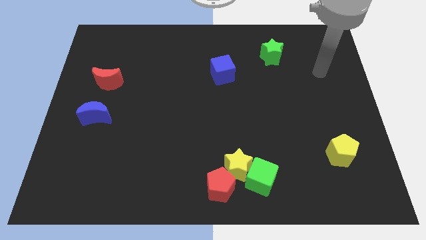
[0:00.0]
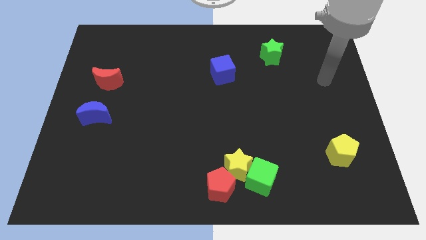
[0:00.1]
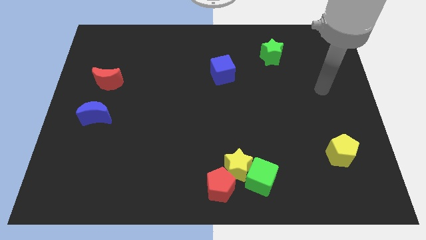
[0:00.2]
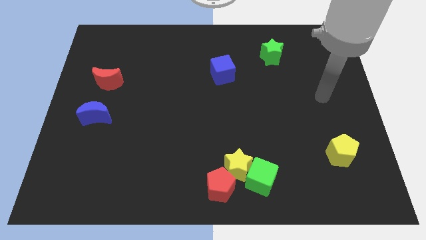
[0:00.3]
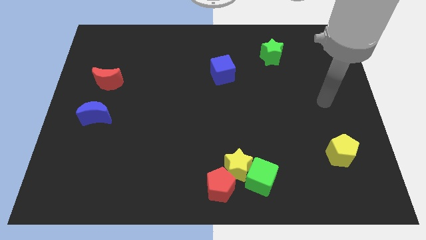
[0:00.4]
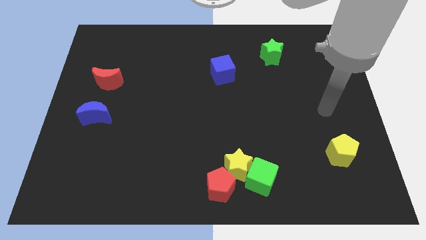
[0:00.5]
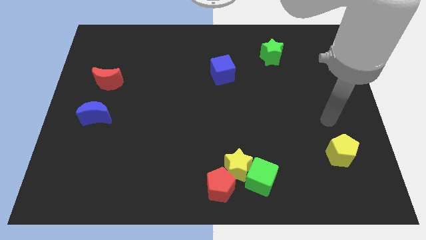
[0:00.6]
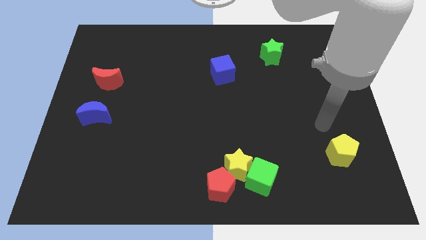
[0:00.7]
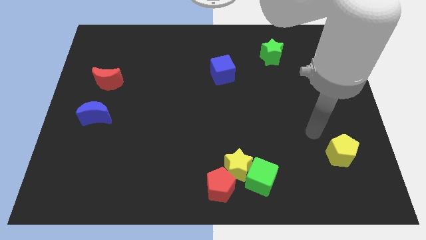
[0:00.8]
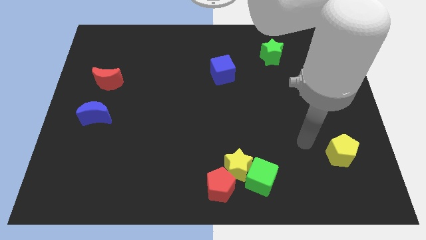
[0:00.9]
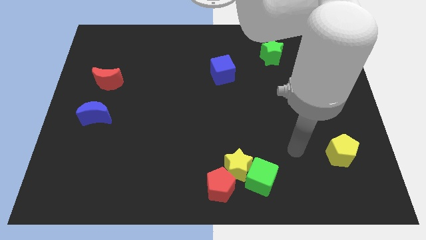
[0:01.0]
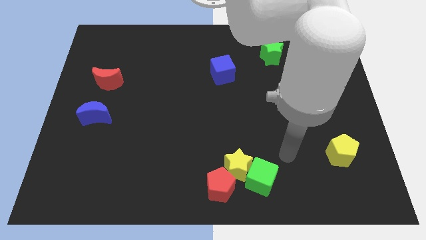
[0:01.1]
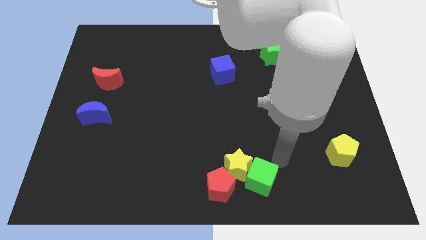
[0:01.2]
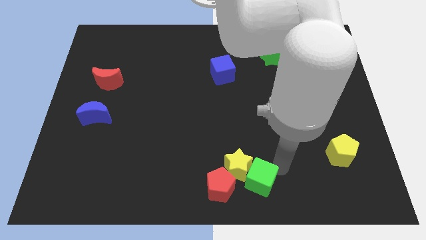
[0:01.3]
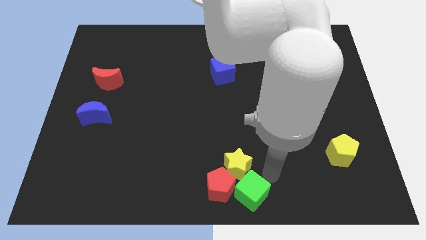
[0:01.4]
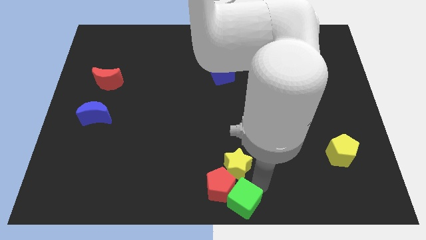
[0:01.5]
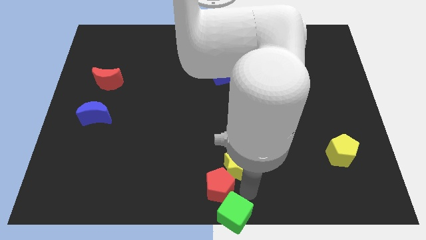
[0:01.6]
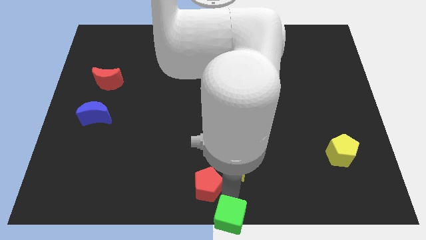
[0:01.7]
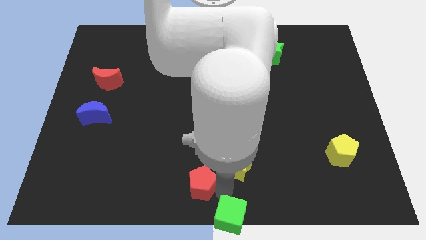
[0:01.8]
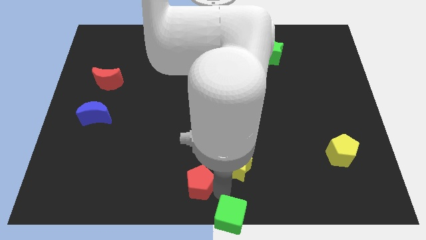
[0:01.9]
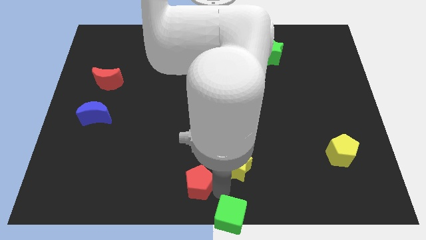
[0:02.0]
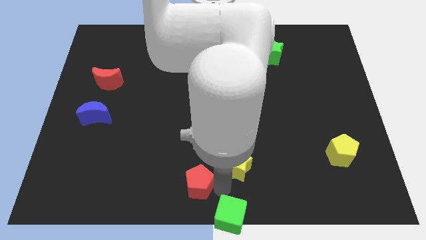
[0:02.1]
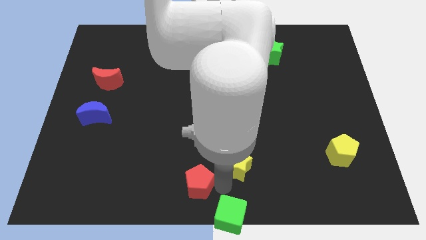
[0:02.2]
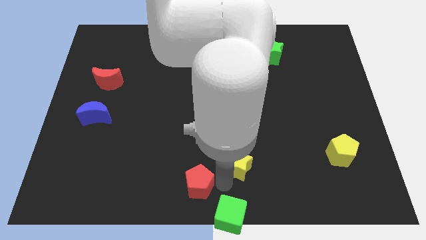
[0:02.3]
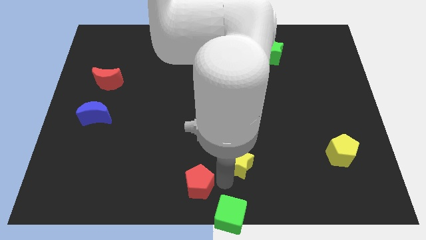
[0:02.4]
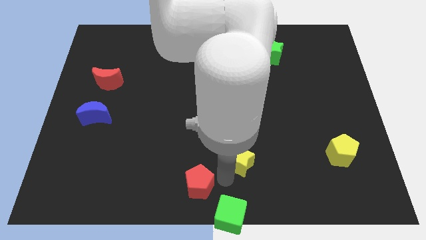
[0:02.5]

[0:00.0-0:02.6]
move the yellow star away from the green cube and red pentagon

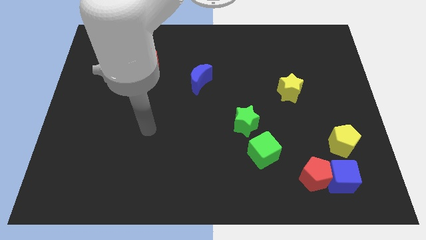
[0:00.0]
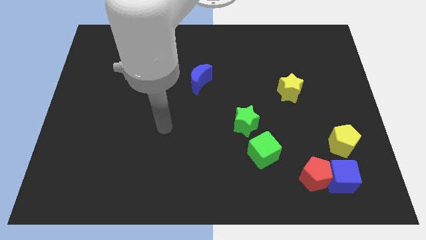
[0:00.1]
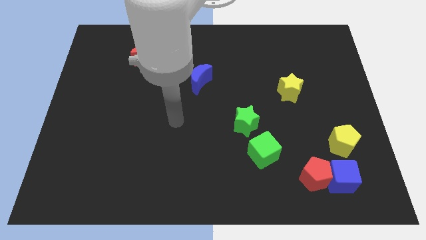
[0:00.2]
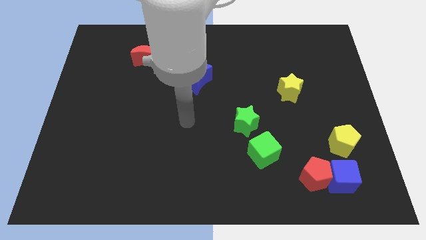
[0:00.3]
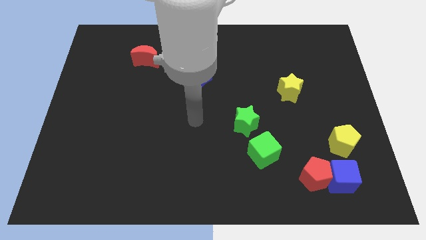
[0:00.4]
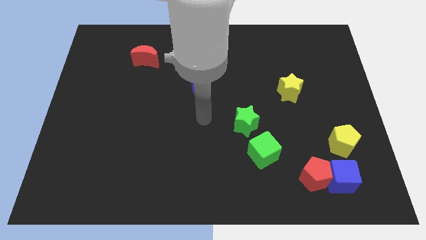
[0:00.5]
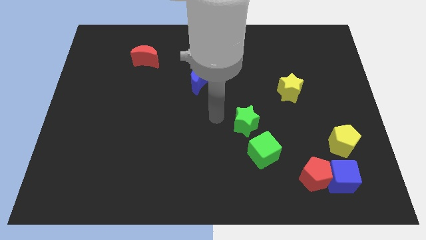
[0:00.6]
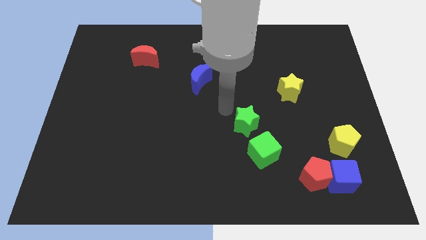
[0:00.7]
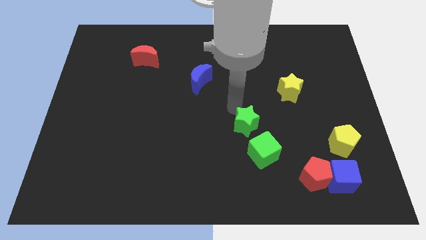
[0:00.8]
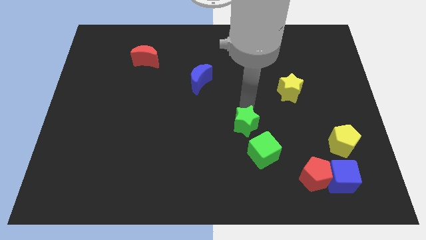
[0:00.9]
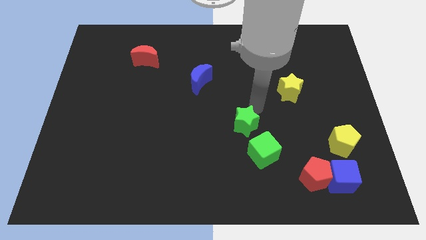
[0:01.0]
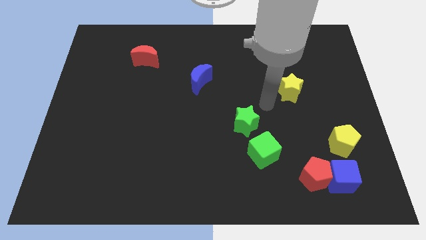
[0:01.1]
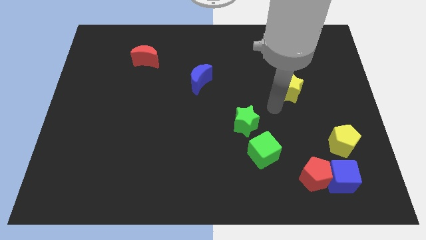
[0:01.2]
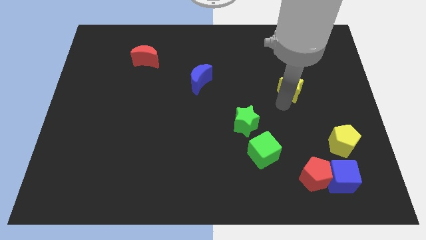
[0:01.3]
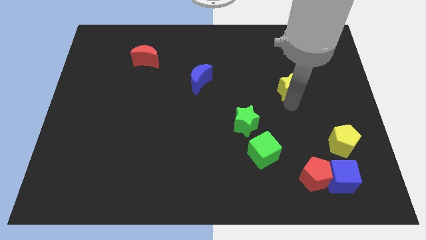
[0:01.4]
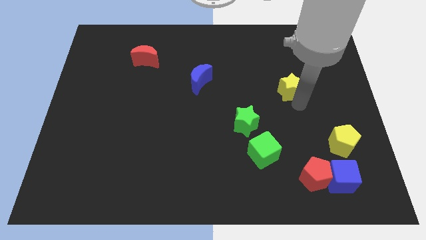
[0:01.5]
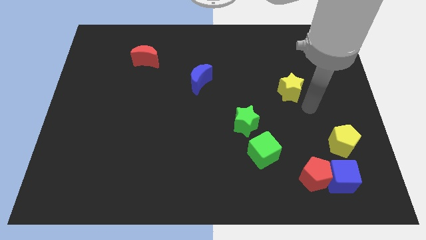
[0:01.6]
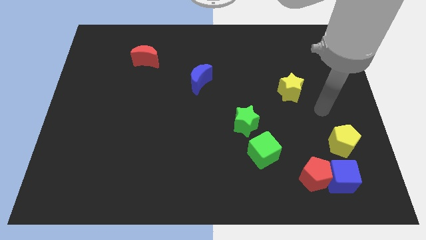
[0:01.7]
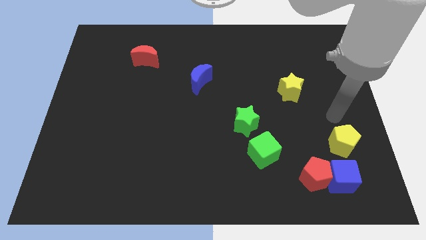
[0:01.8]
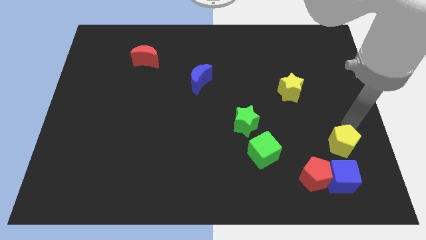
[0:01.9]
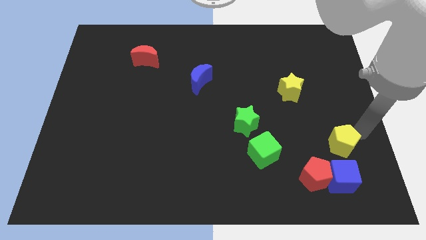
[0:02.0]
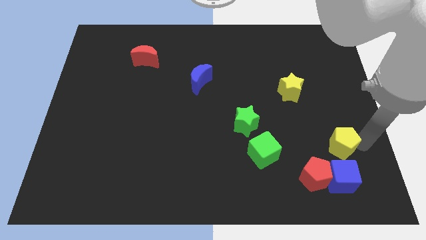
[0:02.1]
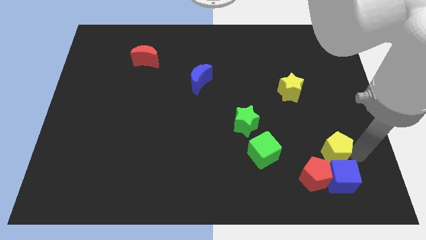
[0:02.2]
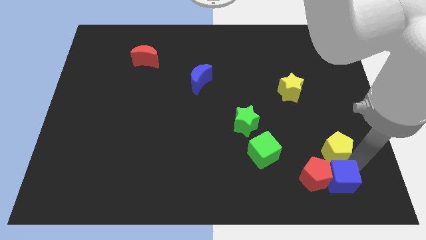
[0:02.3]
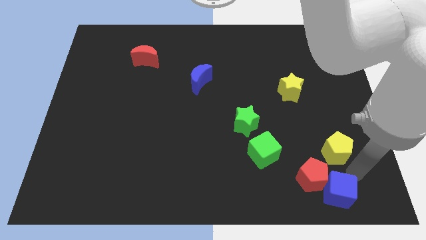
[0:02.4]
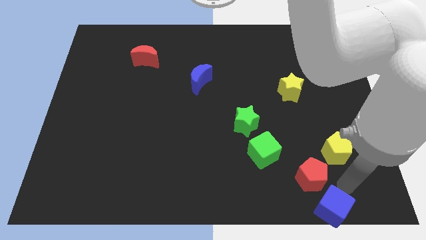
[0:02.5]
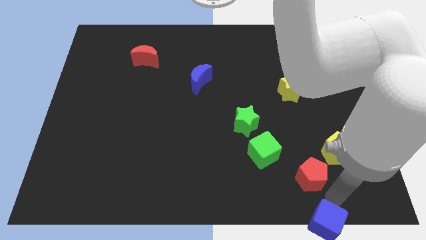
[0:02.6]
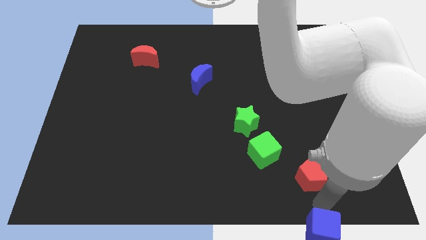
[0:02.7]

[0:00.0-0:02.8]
move the red pentagon away from the blue cube

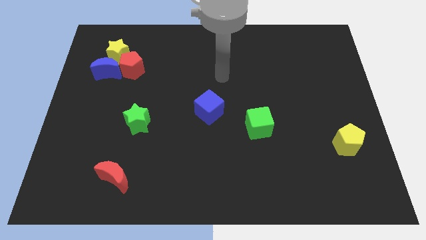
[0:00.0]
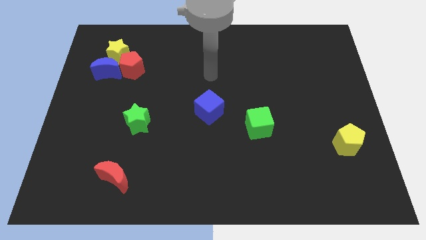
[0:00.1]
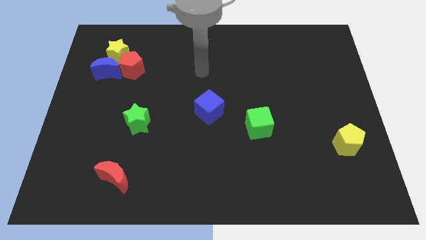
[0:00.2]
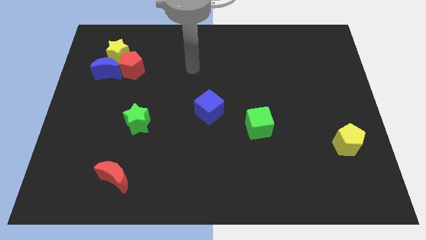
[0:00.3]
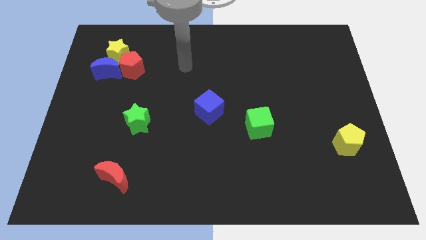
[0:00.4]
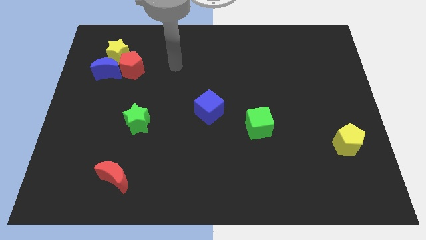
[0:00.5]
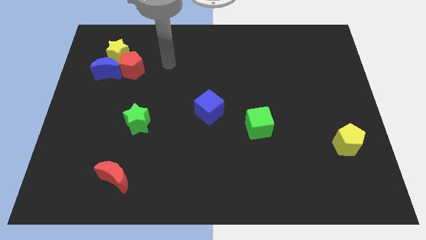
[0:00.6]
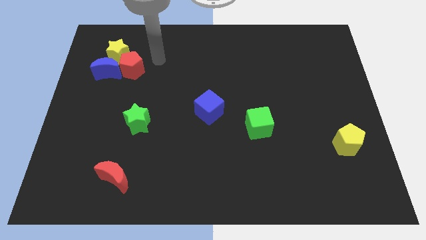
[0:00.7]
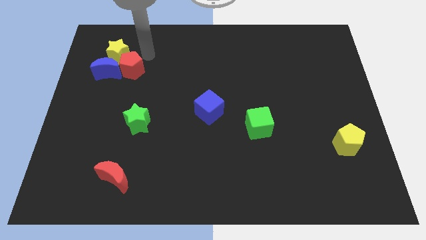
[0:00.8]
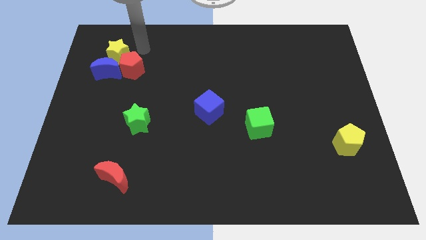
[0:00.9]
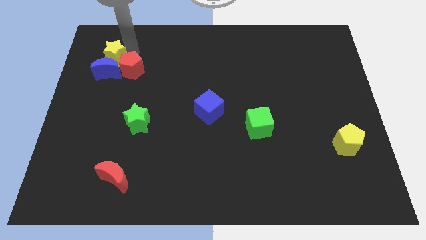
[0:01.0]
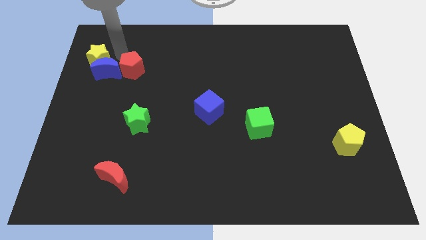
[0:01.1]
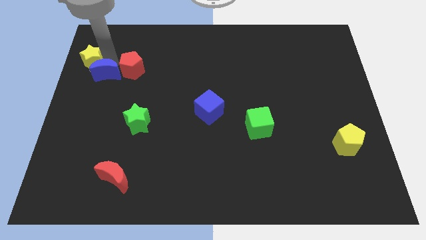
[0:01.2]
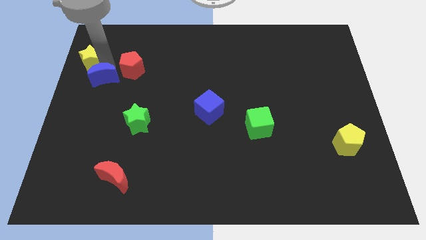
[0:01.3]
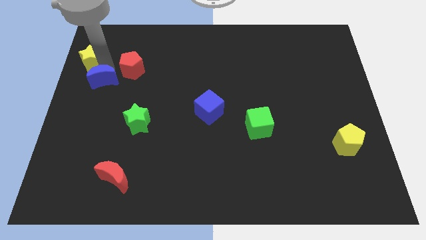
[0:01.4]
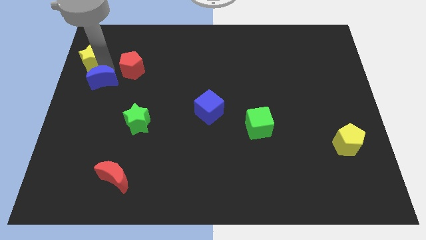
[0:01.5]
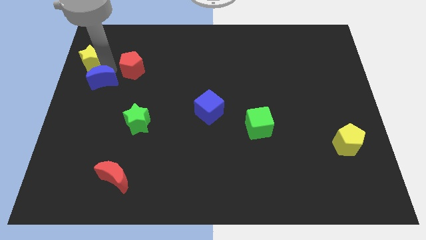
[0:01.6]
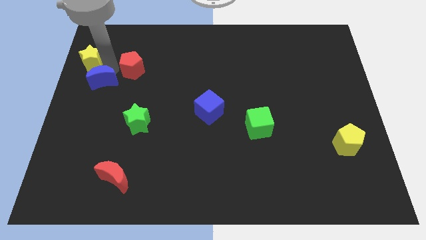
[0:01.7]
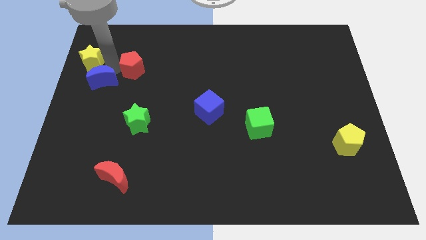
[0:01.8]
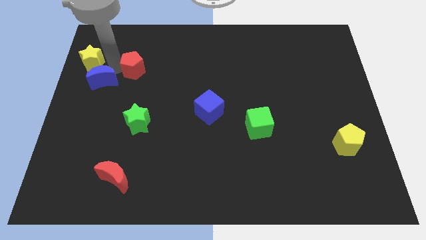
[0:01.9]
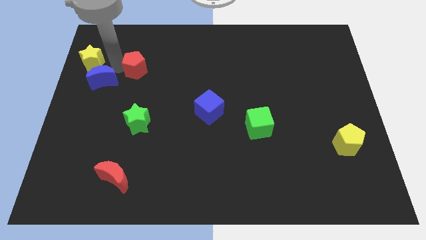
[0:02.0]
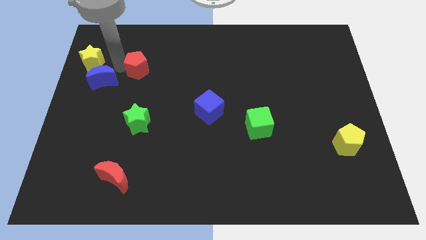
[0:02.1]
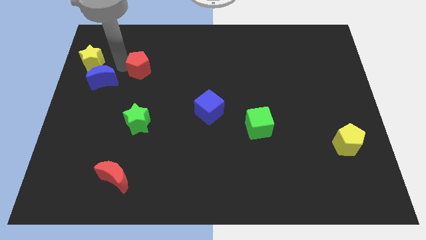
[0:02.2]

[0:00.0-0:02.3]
move the red pentagon away from the blue moon and yellow star

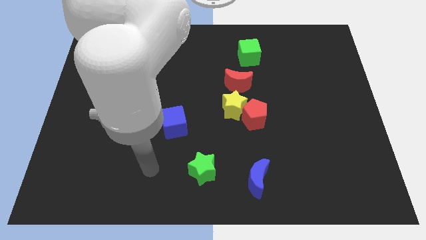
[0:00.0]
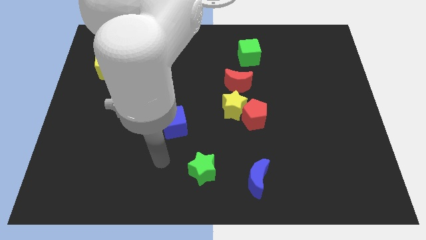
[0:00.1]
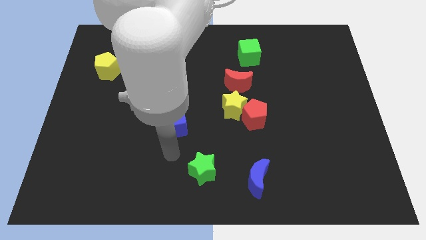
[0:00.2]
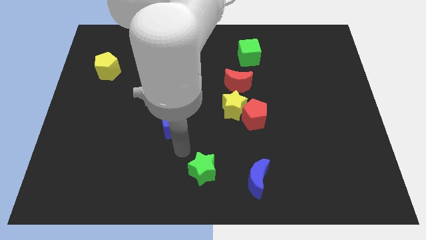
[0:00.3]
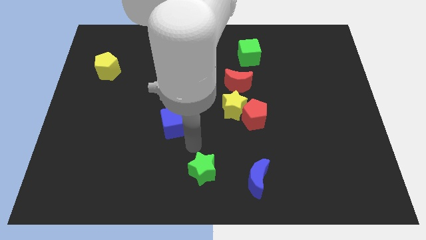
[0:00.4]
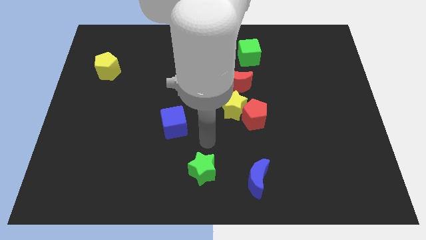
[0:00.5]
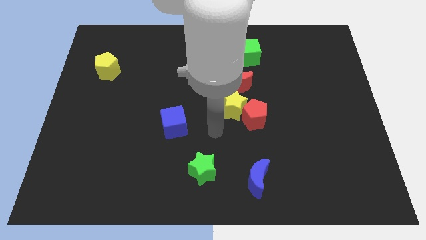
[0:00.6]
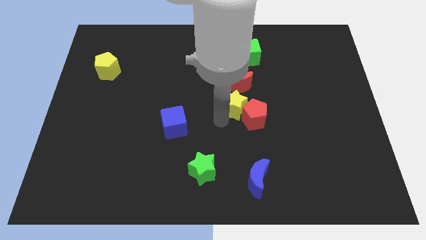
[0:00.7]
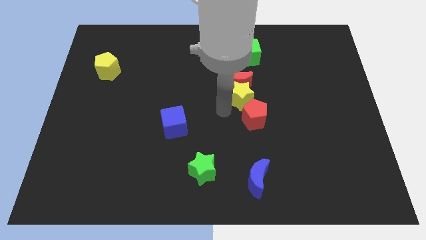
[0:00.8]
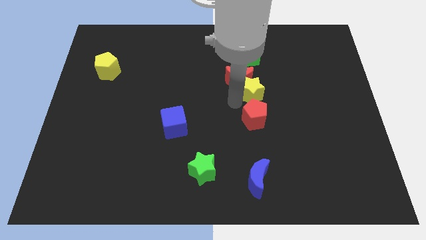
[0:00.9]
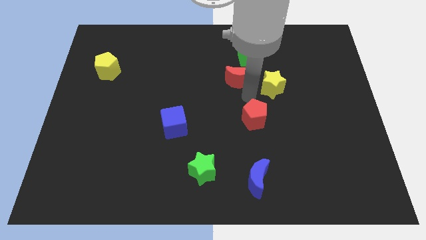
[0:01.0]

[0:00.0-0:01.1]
separate the red pentagon from the yellow star

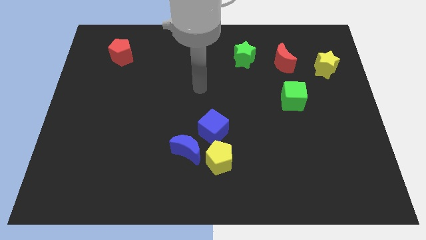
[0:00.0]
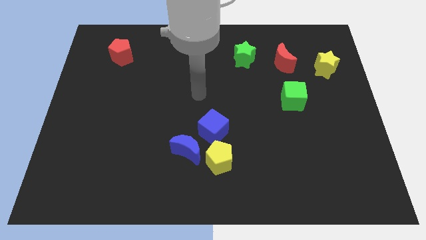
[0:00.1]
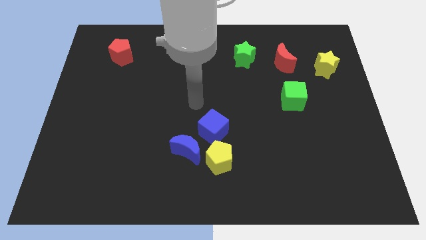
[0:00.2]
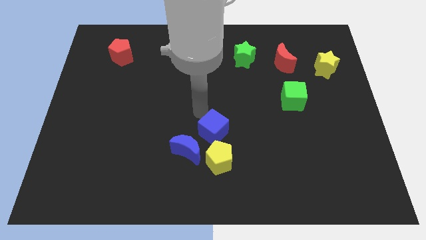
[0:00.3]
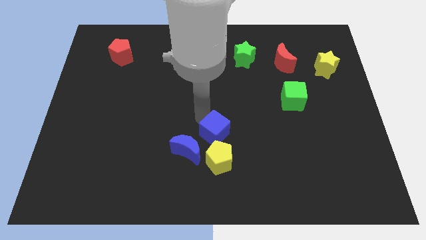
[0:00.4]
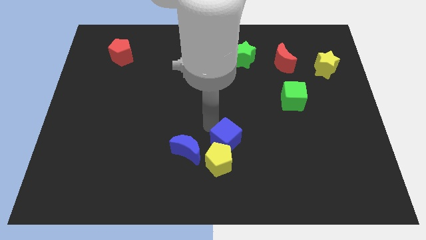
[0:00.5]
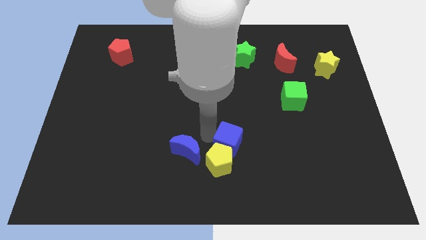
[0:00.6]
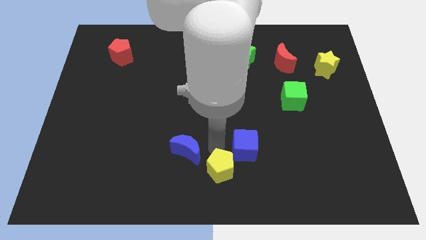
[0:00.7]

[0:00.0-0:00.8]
move the blue moon away from the yellow pentagon and blue cube
